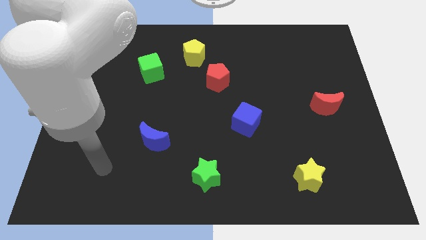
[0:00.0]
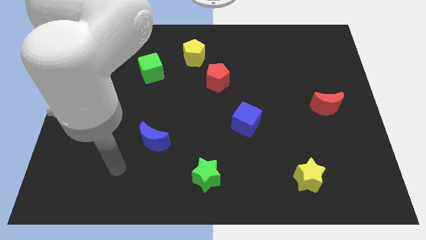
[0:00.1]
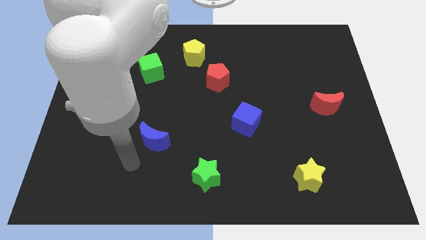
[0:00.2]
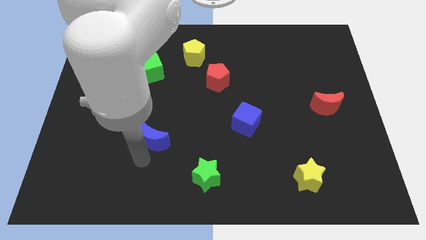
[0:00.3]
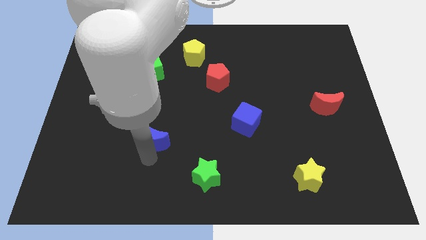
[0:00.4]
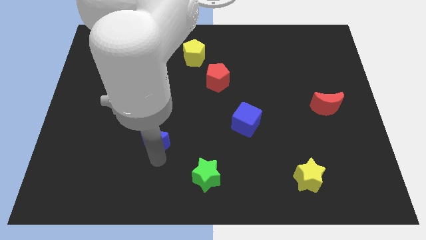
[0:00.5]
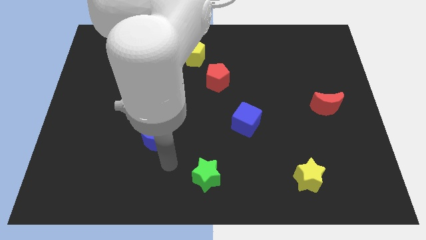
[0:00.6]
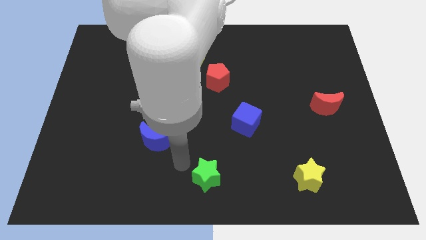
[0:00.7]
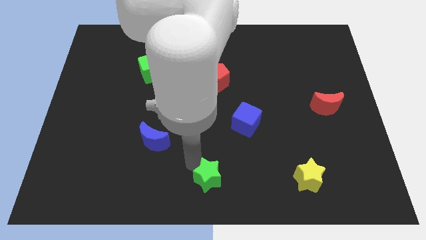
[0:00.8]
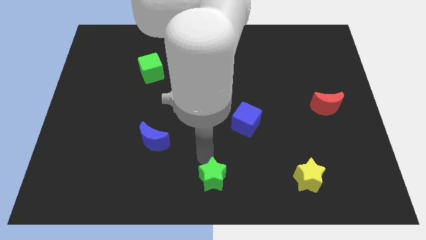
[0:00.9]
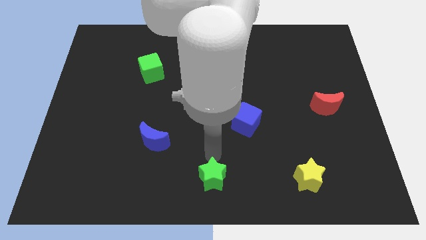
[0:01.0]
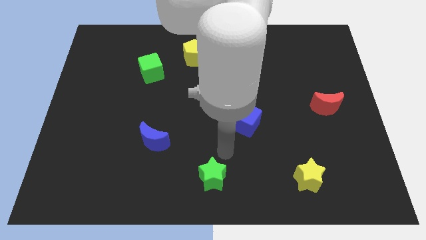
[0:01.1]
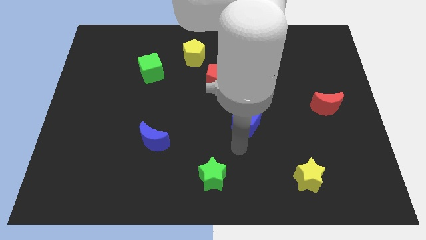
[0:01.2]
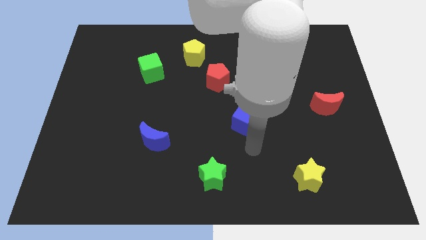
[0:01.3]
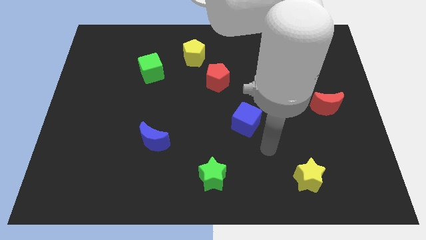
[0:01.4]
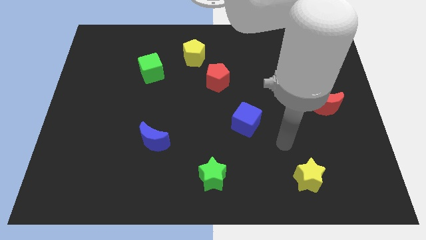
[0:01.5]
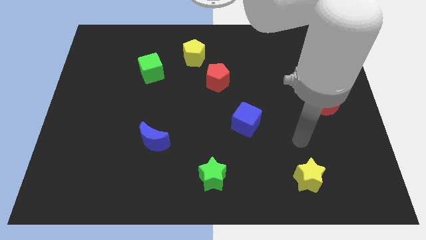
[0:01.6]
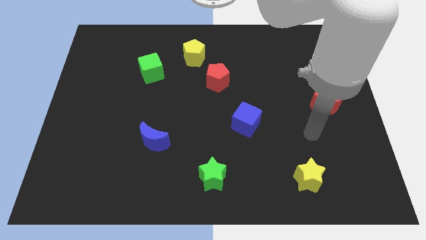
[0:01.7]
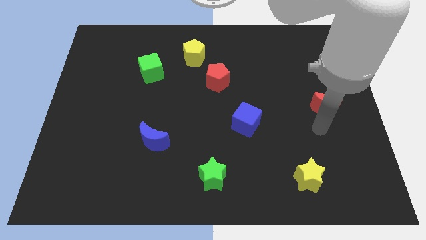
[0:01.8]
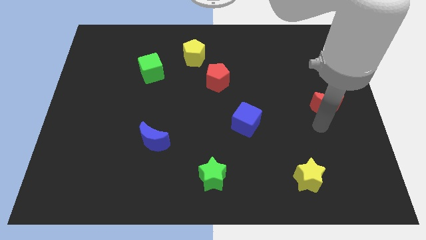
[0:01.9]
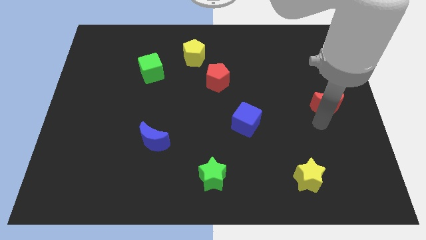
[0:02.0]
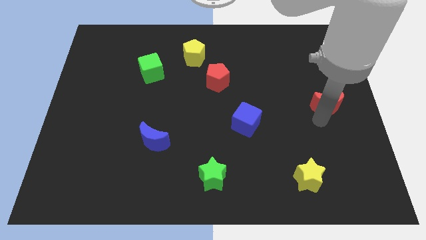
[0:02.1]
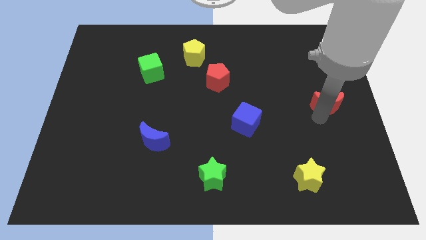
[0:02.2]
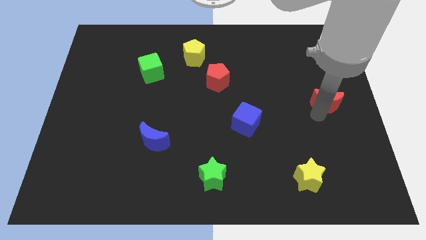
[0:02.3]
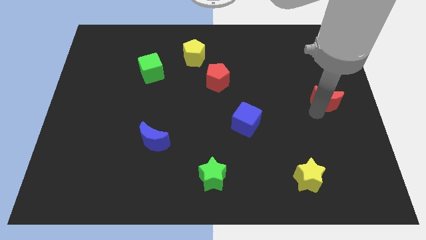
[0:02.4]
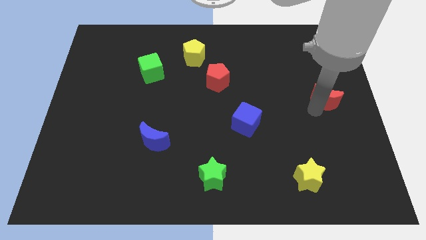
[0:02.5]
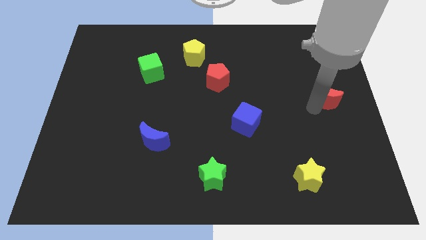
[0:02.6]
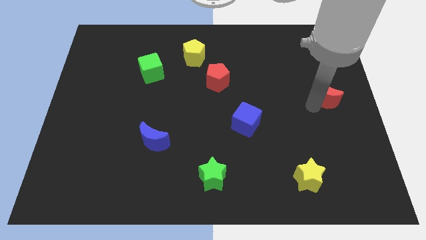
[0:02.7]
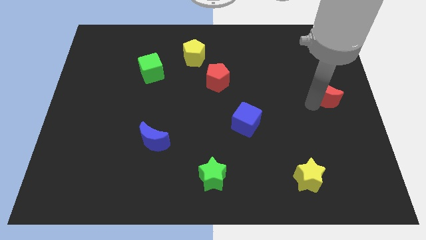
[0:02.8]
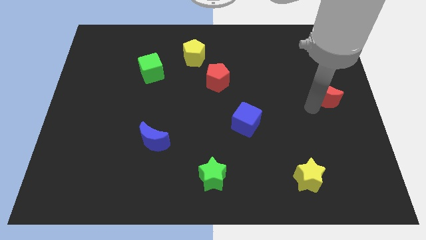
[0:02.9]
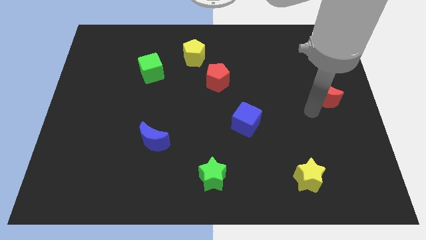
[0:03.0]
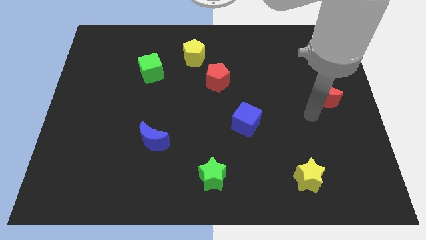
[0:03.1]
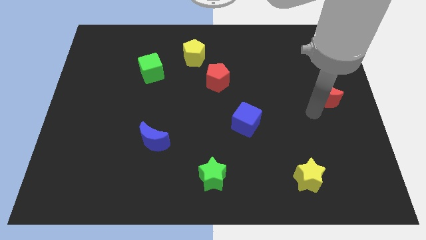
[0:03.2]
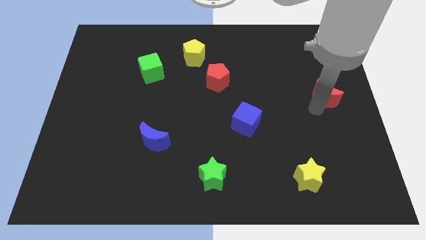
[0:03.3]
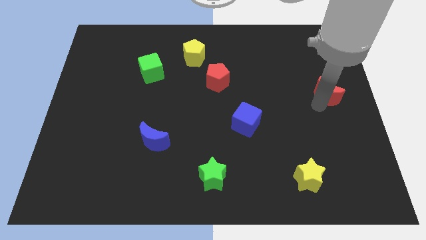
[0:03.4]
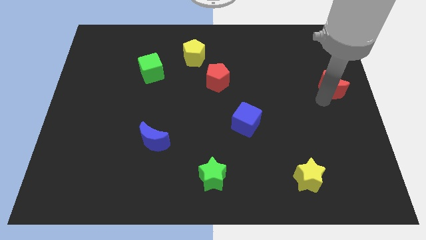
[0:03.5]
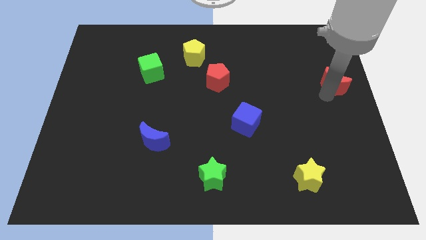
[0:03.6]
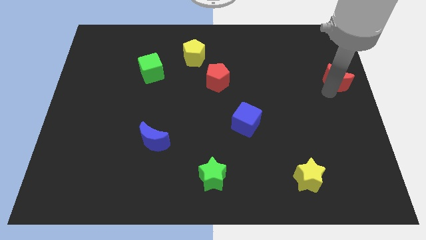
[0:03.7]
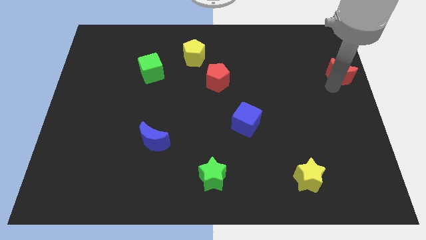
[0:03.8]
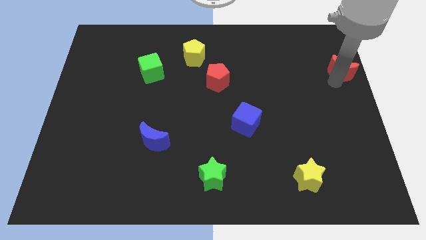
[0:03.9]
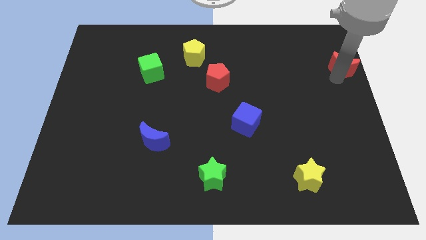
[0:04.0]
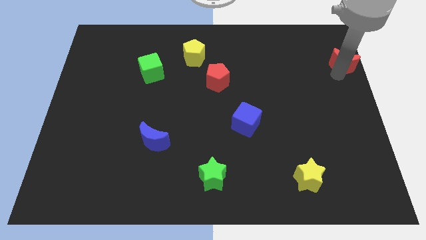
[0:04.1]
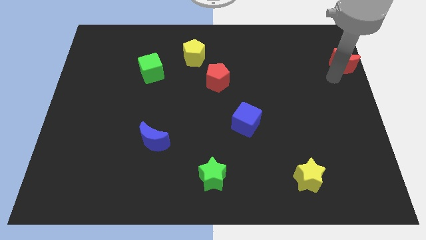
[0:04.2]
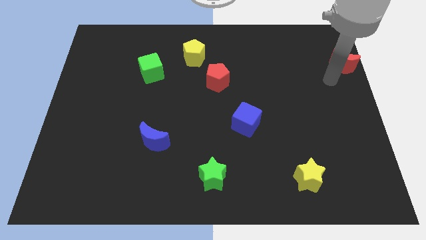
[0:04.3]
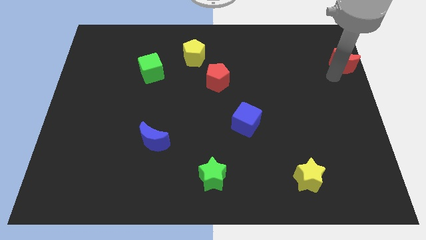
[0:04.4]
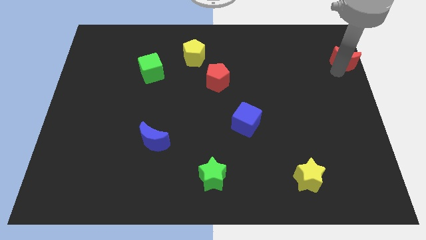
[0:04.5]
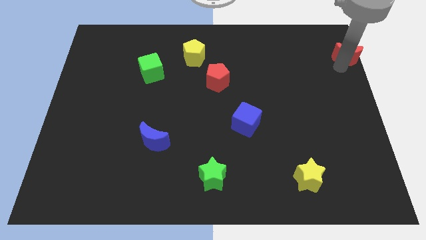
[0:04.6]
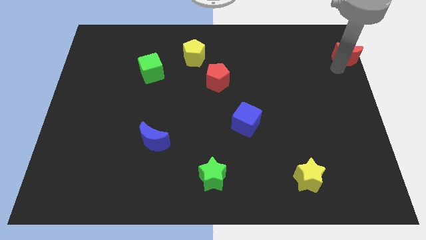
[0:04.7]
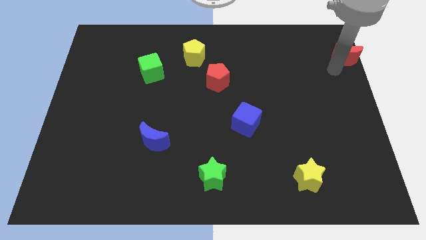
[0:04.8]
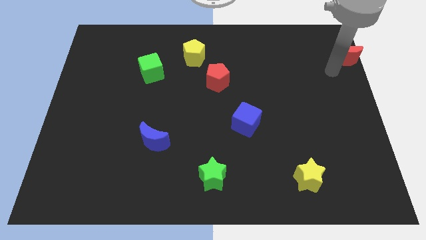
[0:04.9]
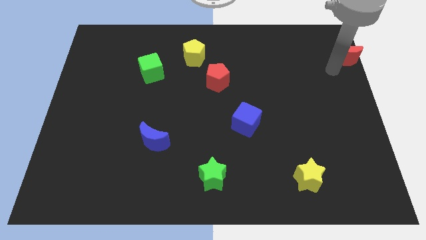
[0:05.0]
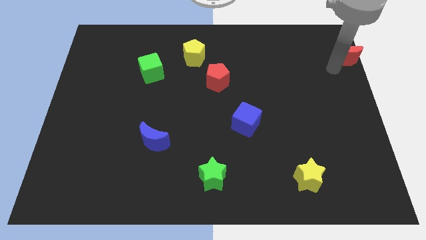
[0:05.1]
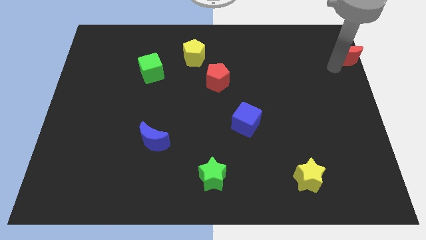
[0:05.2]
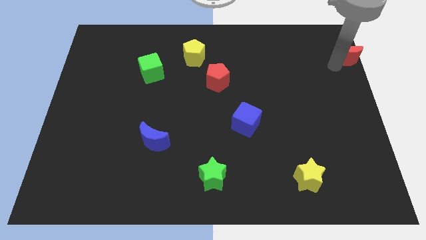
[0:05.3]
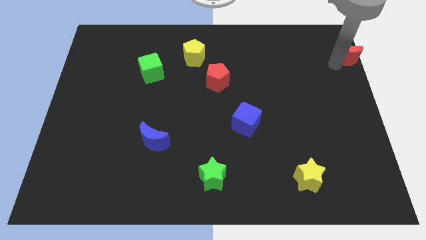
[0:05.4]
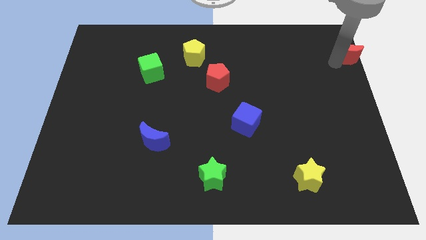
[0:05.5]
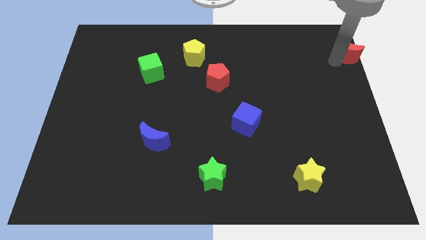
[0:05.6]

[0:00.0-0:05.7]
slide the red moon to the top right of the board
